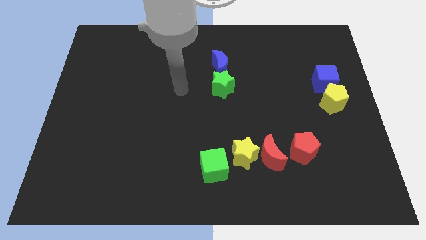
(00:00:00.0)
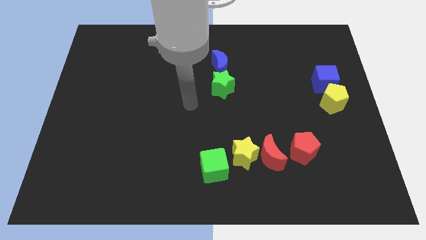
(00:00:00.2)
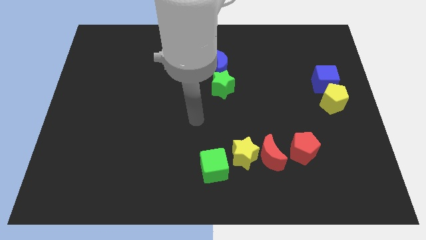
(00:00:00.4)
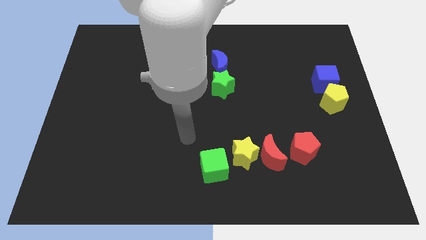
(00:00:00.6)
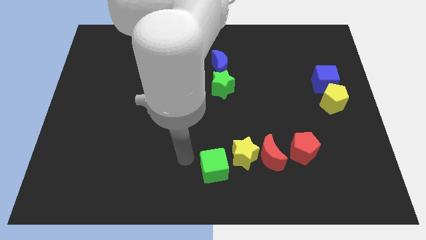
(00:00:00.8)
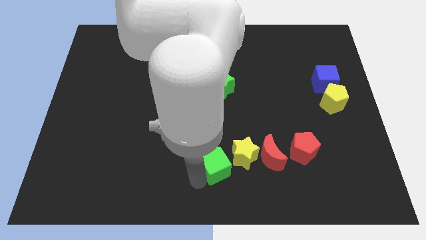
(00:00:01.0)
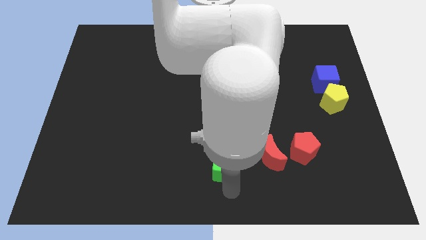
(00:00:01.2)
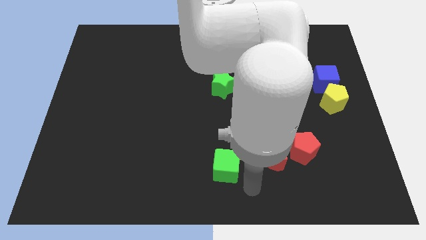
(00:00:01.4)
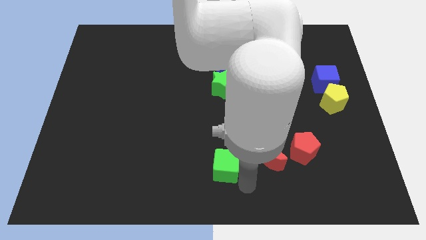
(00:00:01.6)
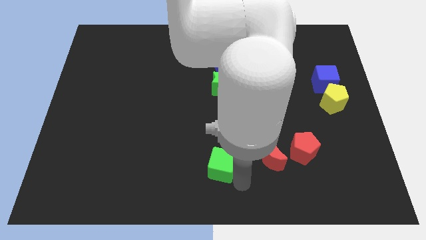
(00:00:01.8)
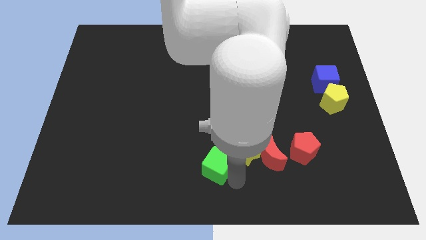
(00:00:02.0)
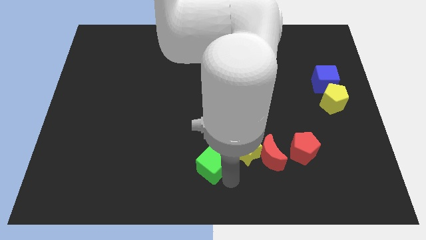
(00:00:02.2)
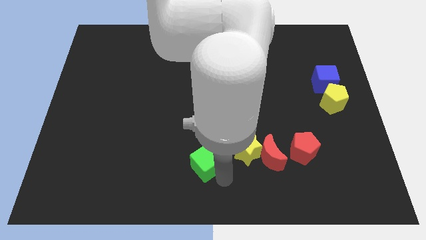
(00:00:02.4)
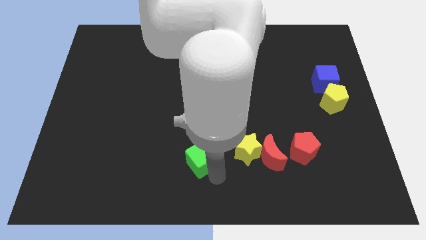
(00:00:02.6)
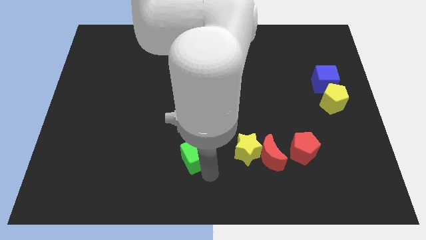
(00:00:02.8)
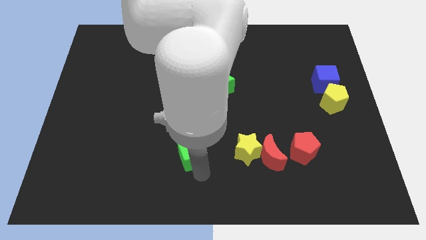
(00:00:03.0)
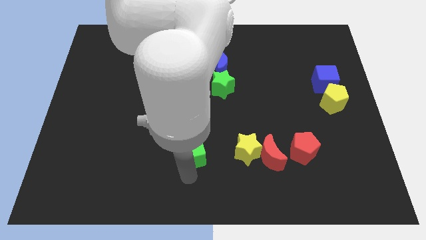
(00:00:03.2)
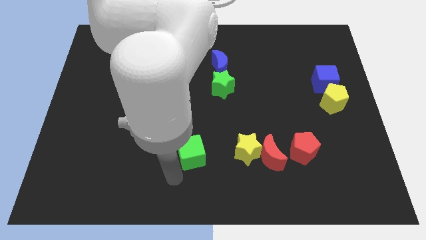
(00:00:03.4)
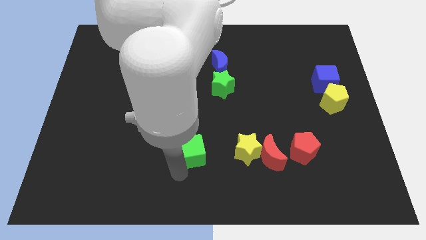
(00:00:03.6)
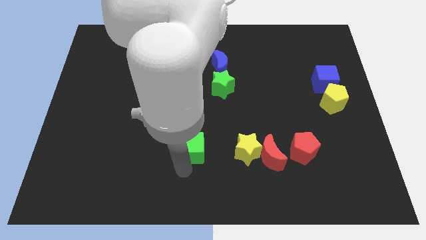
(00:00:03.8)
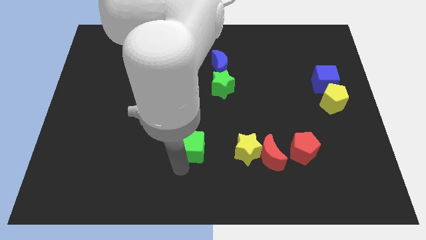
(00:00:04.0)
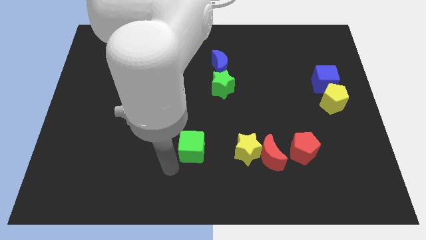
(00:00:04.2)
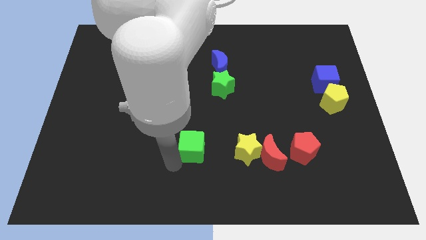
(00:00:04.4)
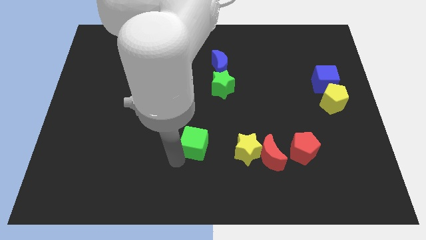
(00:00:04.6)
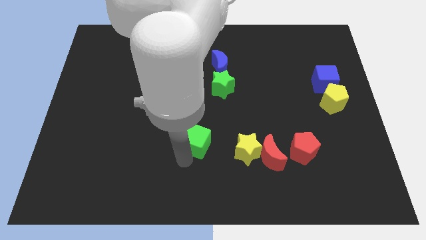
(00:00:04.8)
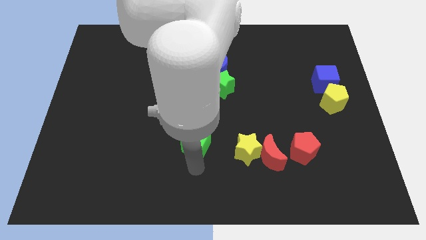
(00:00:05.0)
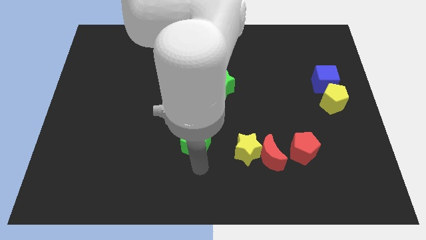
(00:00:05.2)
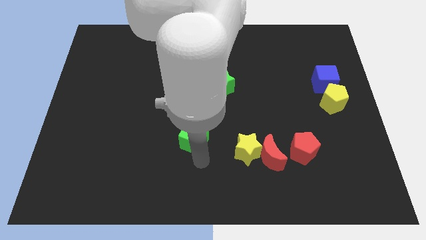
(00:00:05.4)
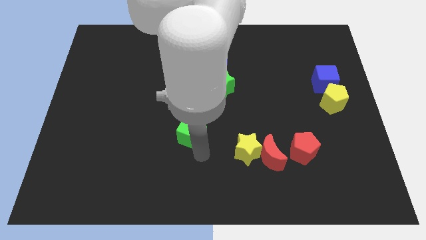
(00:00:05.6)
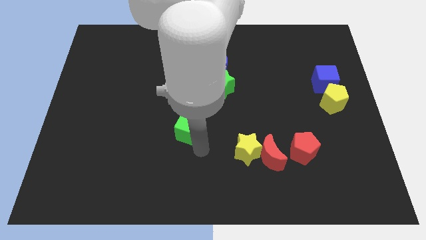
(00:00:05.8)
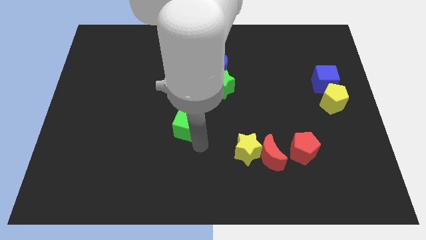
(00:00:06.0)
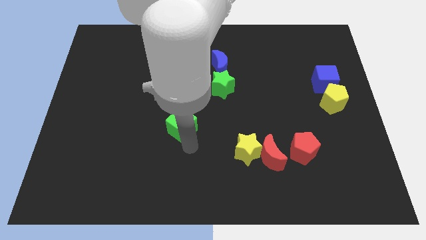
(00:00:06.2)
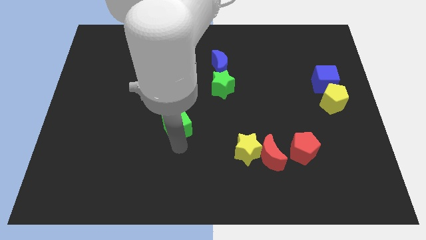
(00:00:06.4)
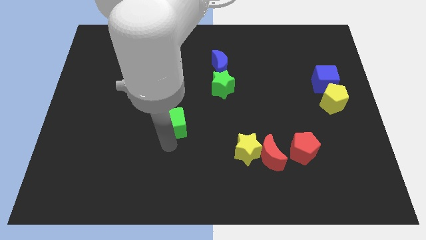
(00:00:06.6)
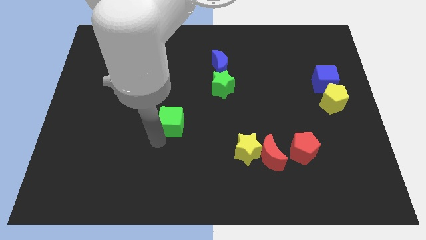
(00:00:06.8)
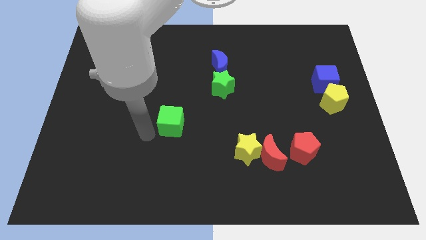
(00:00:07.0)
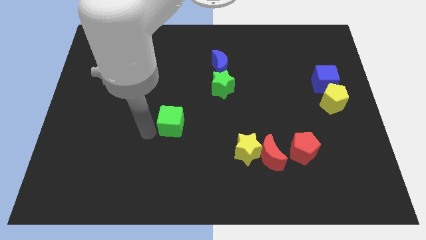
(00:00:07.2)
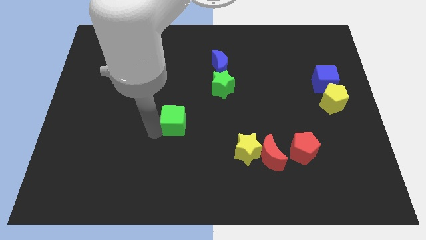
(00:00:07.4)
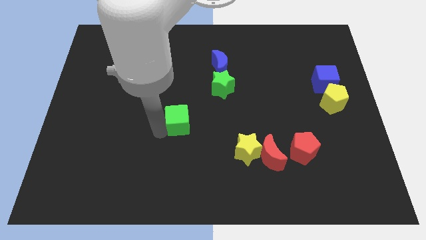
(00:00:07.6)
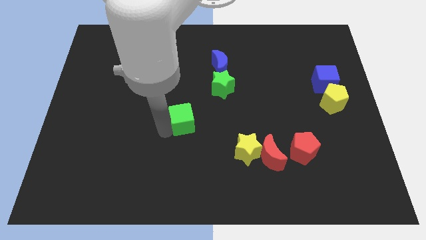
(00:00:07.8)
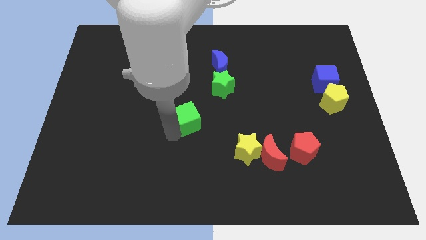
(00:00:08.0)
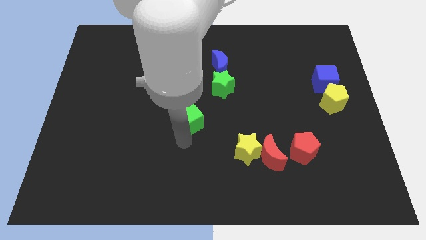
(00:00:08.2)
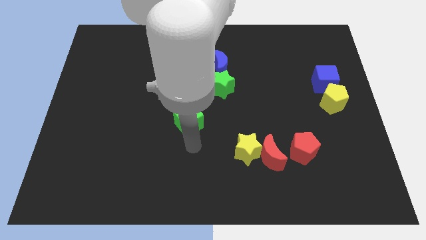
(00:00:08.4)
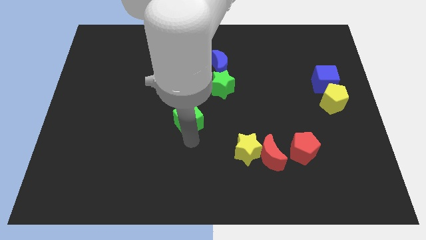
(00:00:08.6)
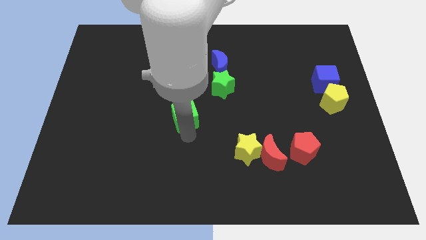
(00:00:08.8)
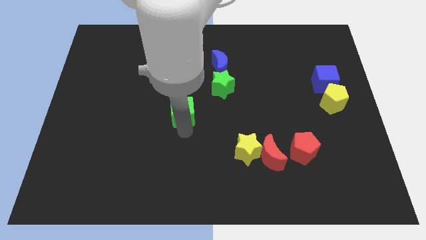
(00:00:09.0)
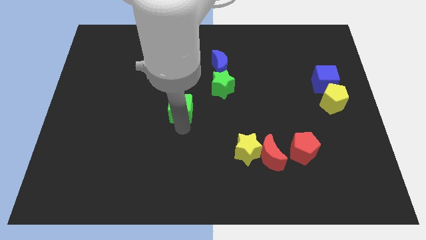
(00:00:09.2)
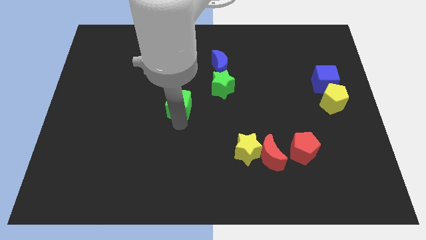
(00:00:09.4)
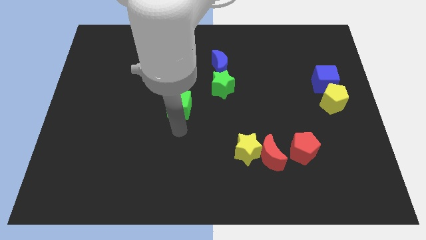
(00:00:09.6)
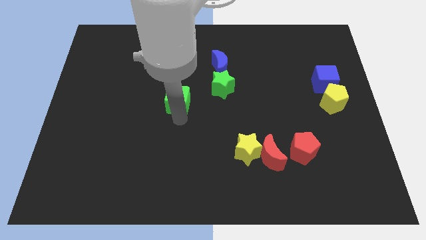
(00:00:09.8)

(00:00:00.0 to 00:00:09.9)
slide the green cube left of the green star

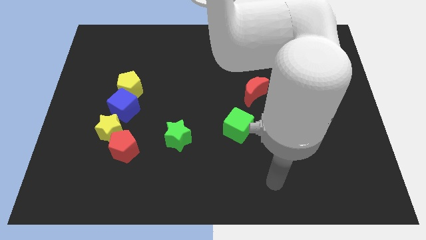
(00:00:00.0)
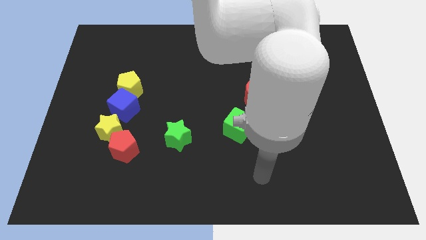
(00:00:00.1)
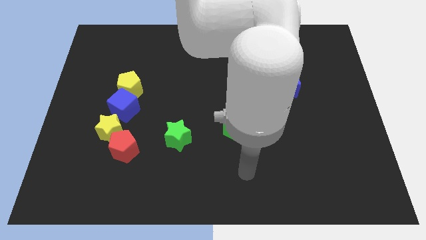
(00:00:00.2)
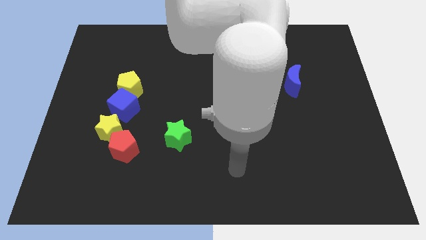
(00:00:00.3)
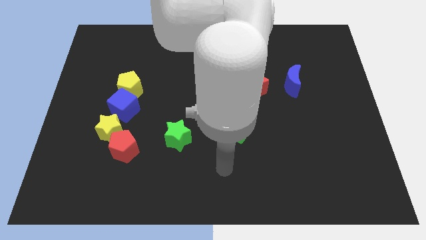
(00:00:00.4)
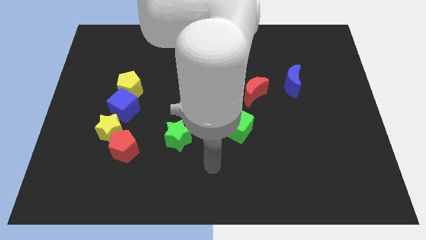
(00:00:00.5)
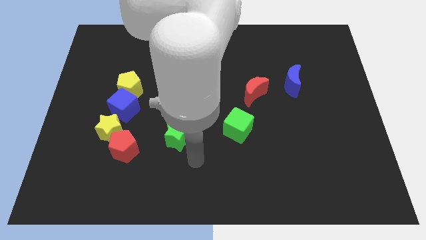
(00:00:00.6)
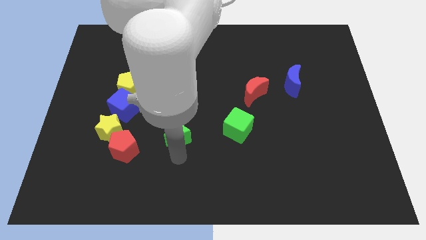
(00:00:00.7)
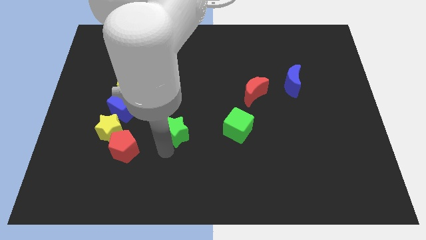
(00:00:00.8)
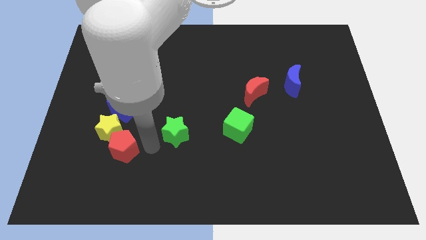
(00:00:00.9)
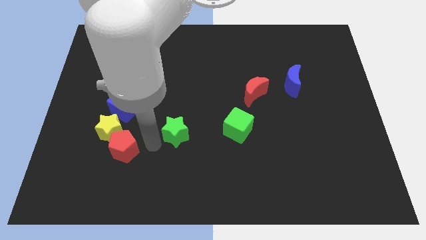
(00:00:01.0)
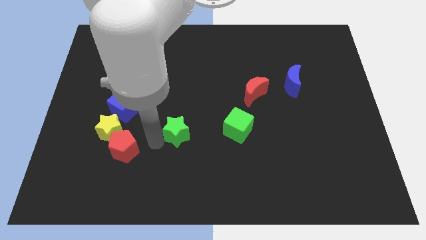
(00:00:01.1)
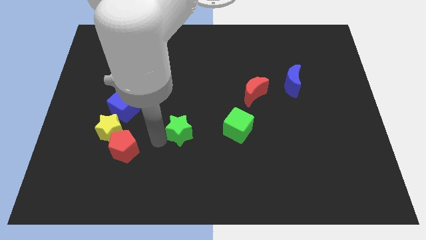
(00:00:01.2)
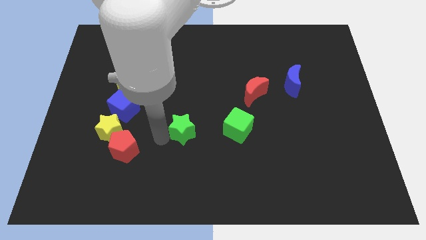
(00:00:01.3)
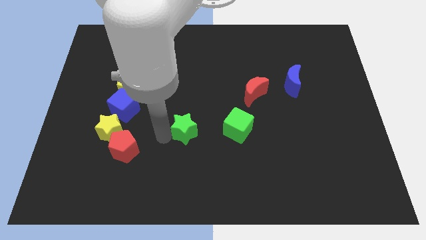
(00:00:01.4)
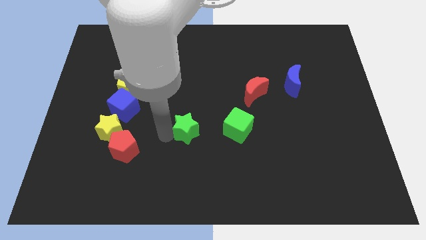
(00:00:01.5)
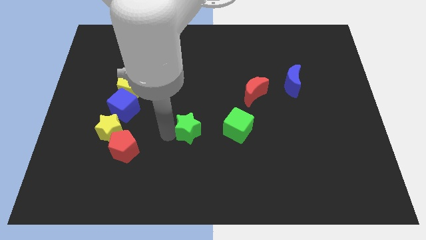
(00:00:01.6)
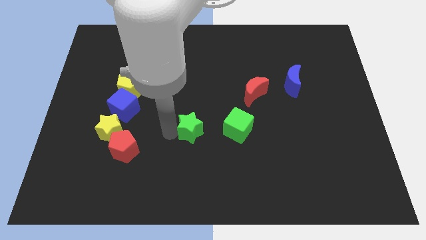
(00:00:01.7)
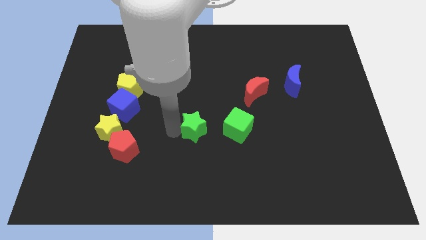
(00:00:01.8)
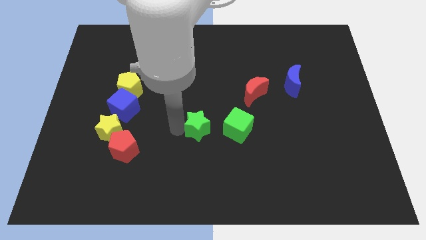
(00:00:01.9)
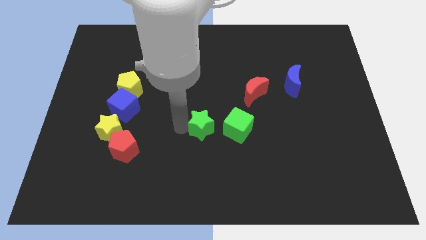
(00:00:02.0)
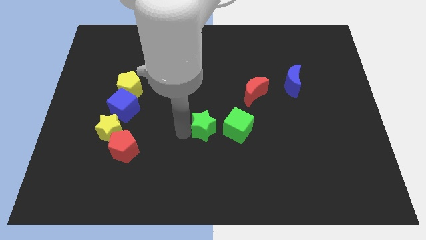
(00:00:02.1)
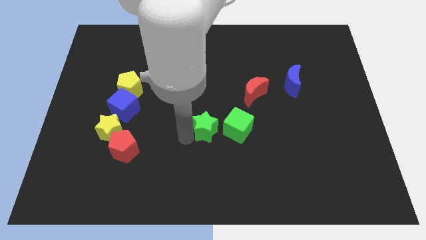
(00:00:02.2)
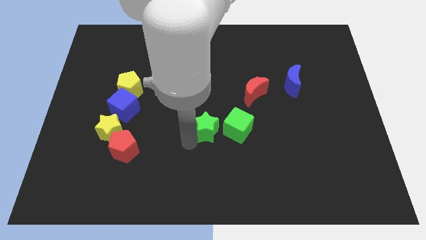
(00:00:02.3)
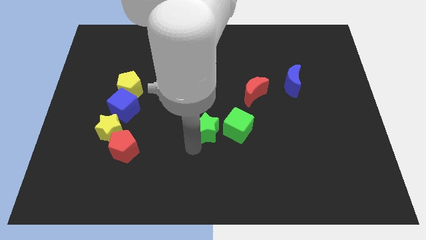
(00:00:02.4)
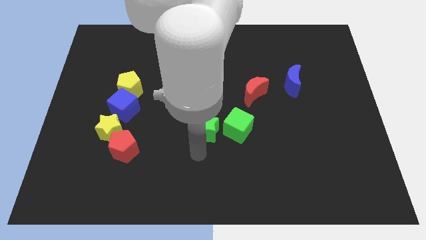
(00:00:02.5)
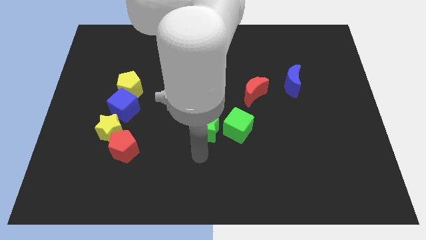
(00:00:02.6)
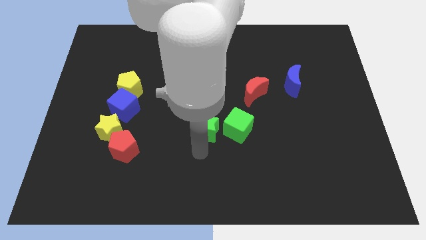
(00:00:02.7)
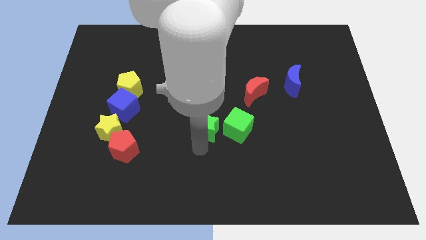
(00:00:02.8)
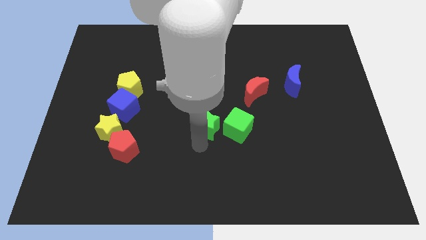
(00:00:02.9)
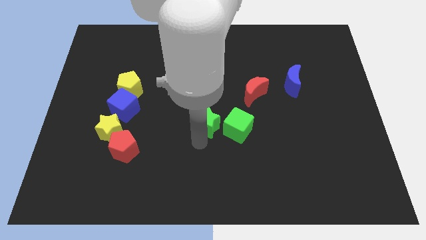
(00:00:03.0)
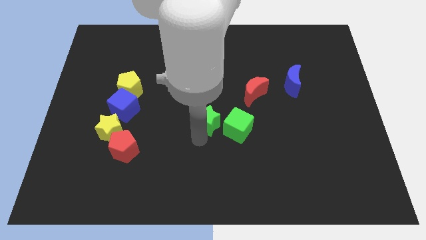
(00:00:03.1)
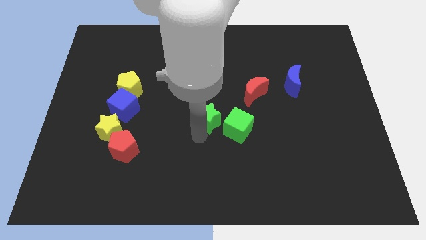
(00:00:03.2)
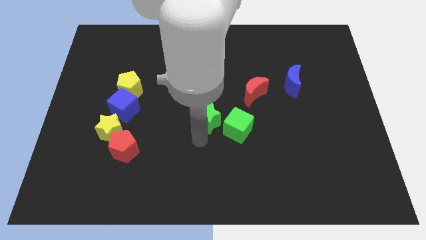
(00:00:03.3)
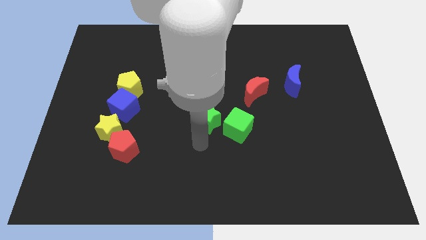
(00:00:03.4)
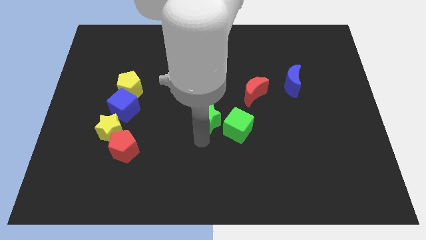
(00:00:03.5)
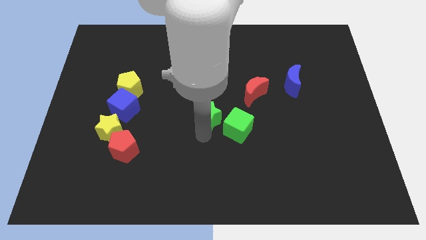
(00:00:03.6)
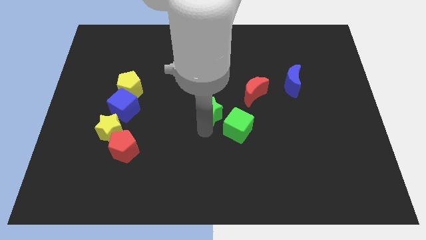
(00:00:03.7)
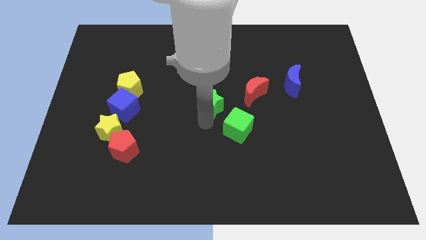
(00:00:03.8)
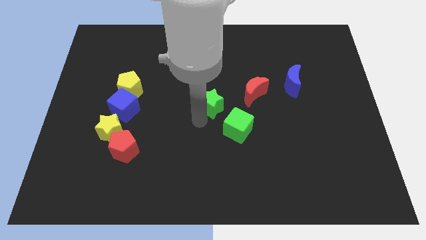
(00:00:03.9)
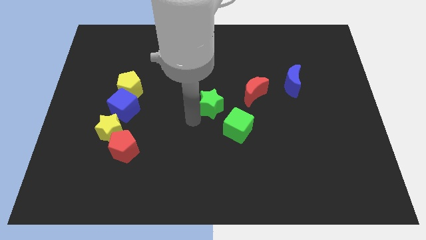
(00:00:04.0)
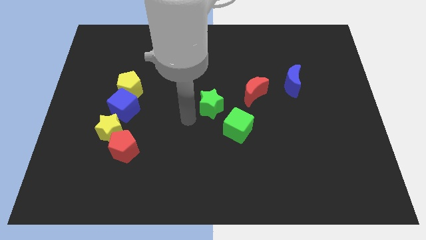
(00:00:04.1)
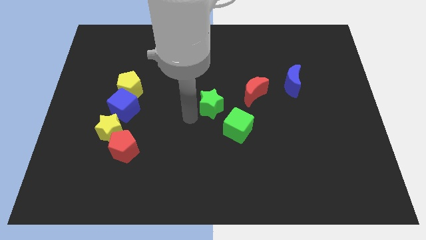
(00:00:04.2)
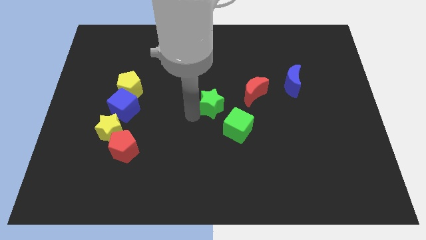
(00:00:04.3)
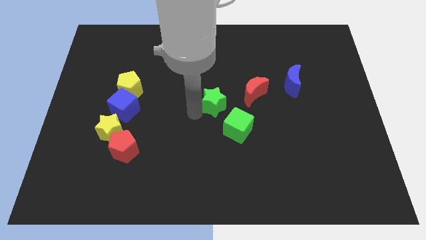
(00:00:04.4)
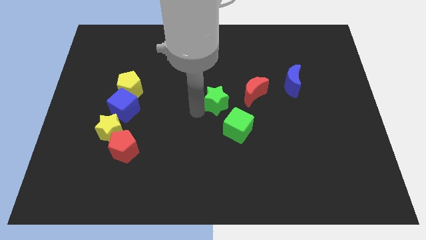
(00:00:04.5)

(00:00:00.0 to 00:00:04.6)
push the green star to the top side of the green cube
